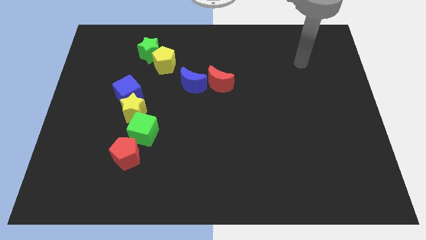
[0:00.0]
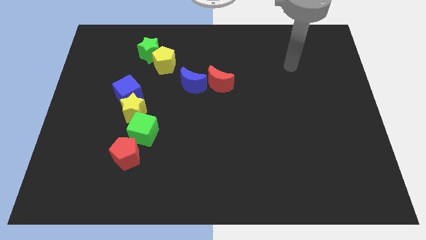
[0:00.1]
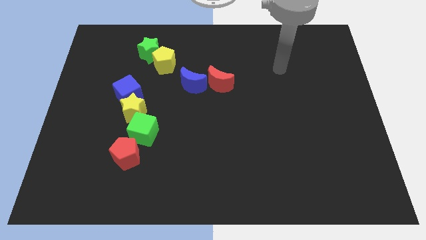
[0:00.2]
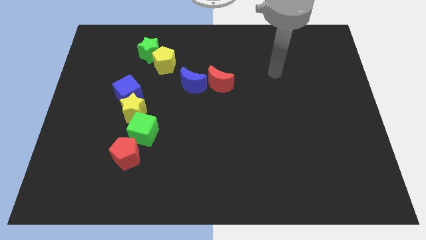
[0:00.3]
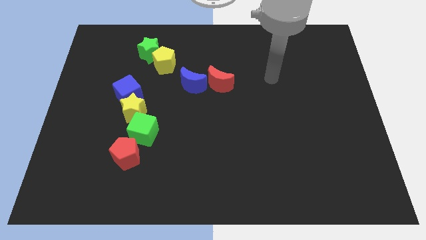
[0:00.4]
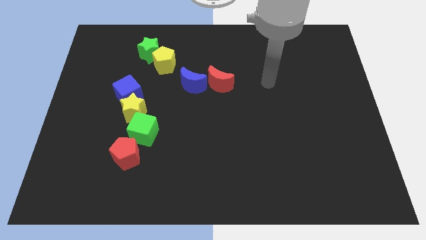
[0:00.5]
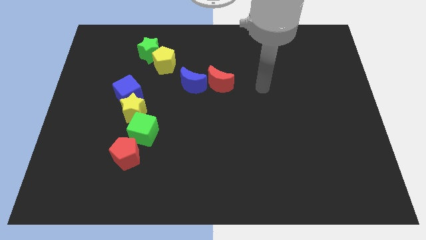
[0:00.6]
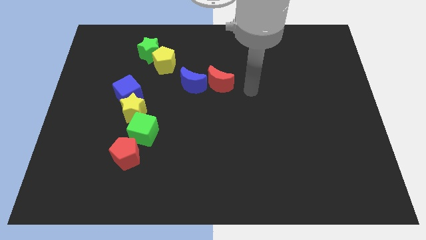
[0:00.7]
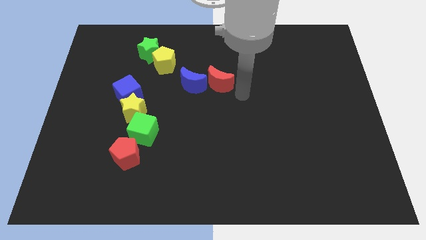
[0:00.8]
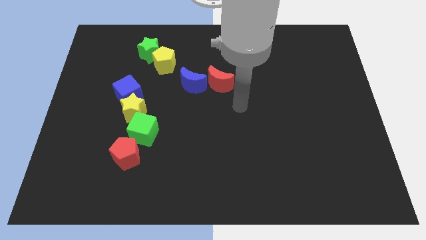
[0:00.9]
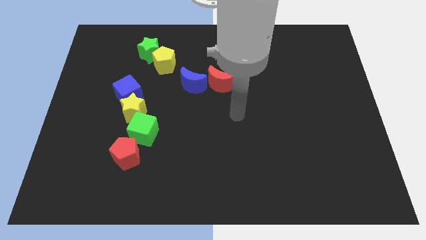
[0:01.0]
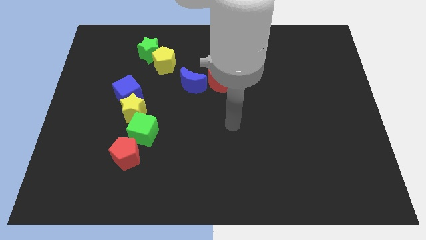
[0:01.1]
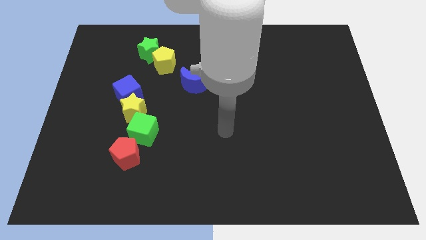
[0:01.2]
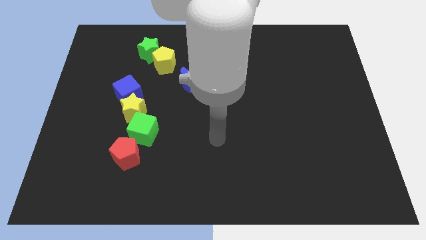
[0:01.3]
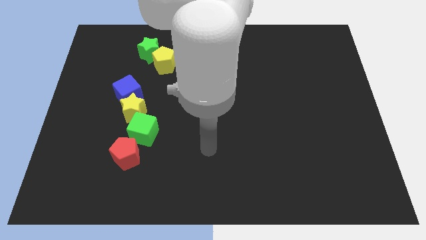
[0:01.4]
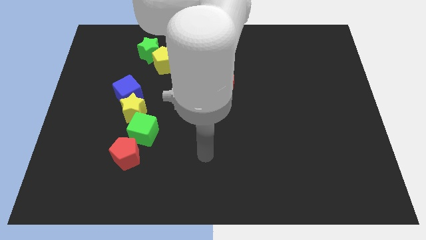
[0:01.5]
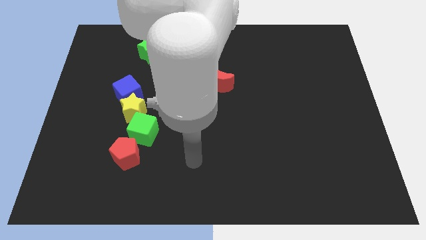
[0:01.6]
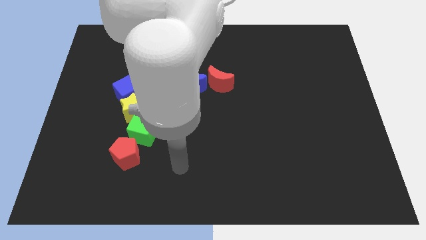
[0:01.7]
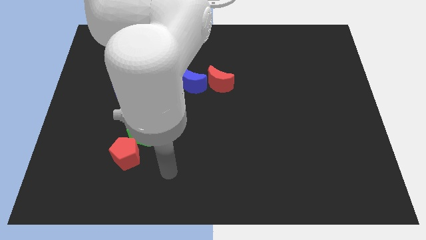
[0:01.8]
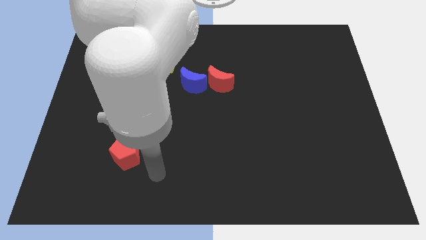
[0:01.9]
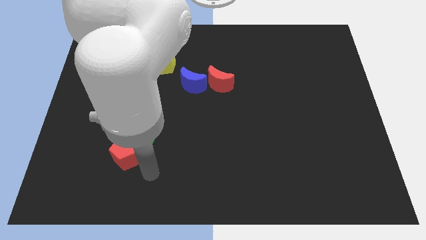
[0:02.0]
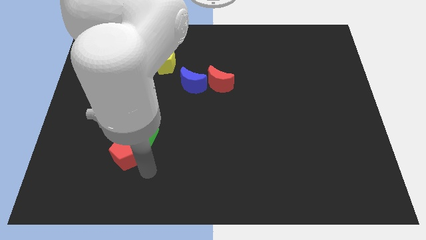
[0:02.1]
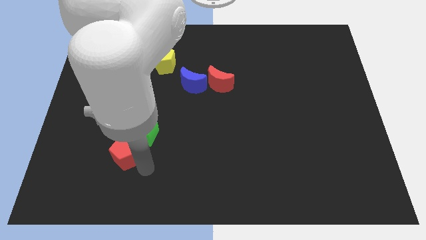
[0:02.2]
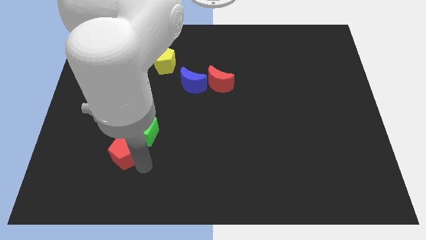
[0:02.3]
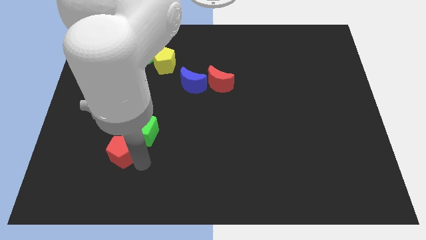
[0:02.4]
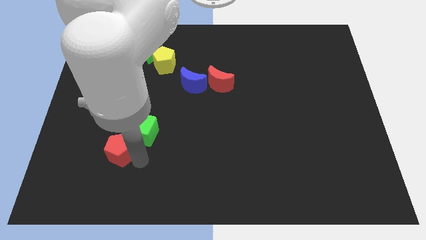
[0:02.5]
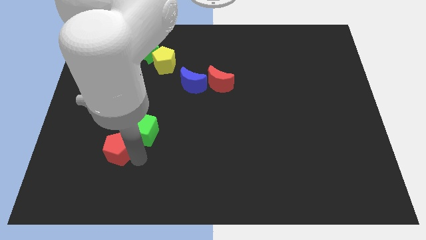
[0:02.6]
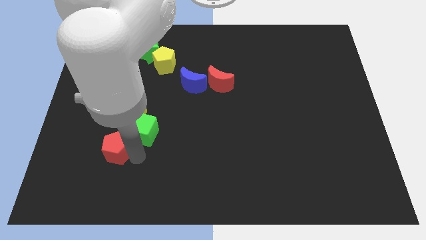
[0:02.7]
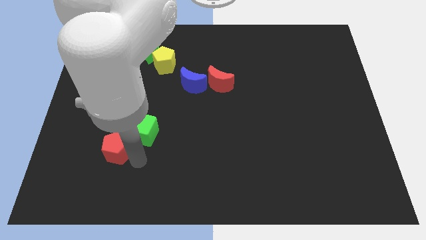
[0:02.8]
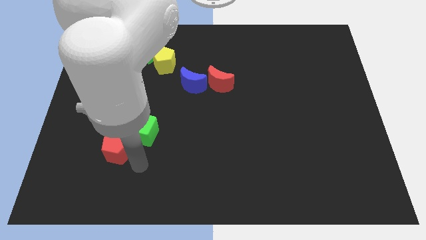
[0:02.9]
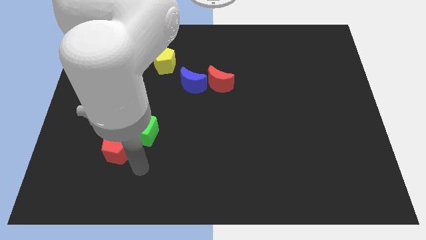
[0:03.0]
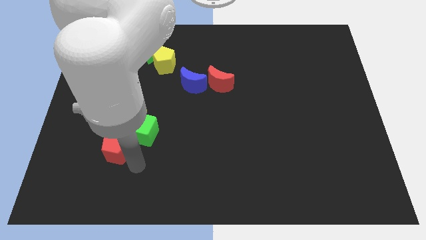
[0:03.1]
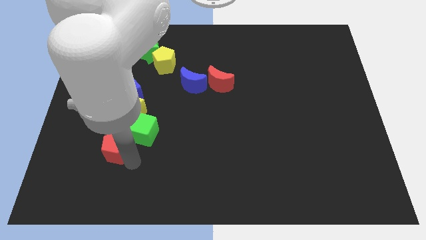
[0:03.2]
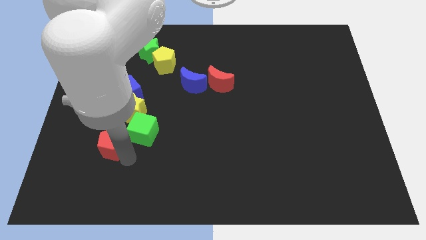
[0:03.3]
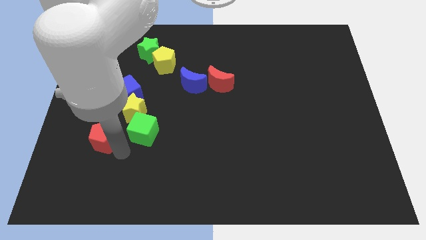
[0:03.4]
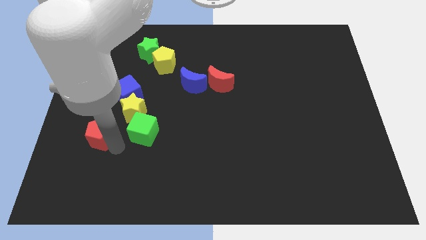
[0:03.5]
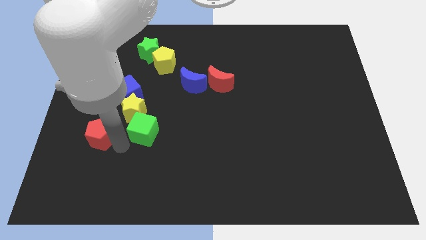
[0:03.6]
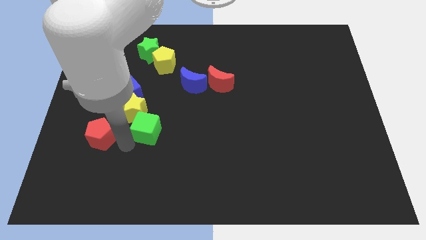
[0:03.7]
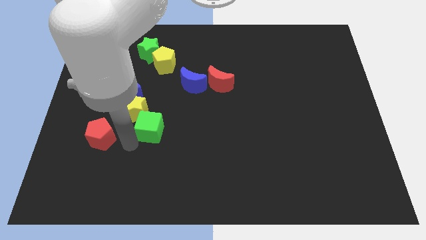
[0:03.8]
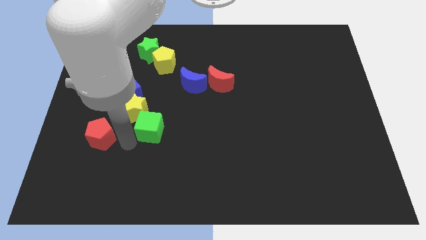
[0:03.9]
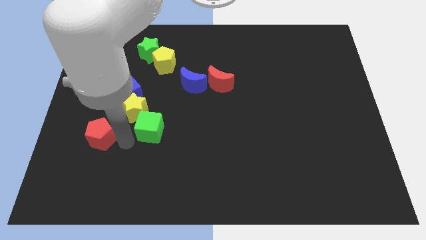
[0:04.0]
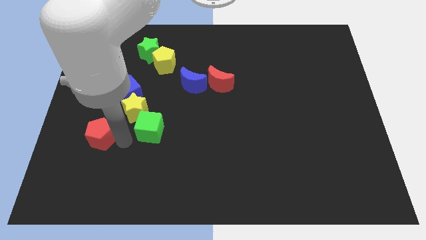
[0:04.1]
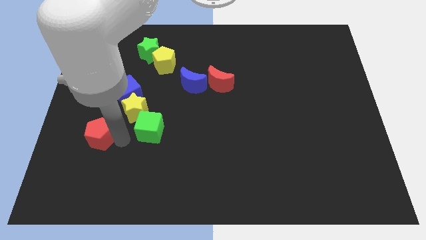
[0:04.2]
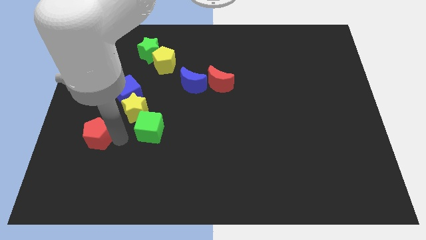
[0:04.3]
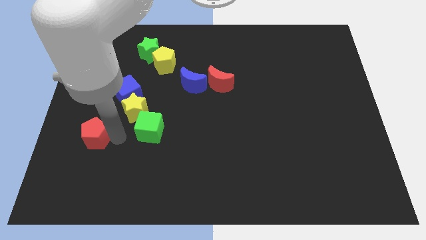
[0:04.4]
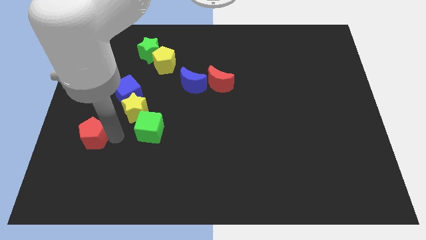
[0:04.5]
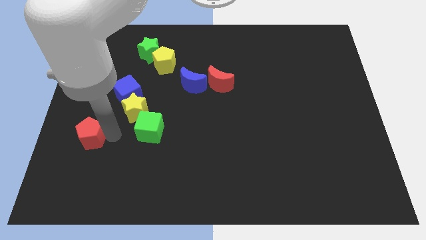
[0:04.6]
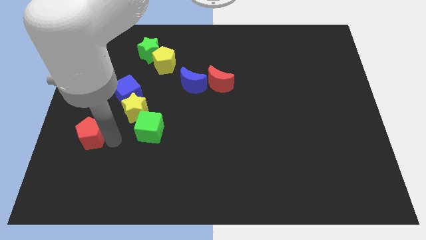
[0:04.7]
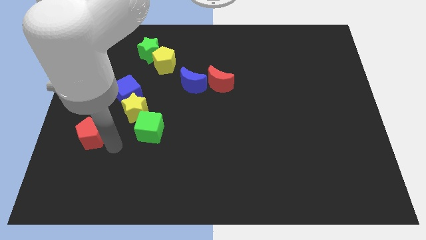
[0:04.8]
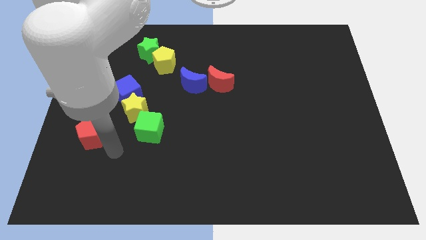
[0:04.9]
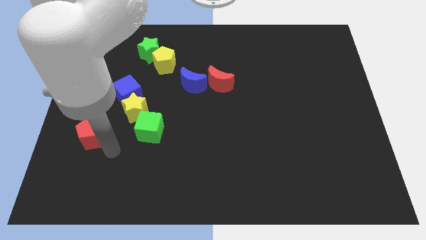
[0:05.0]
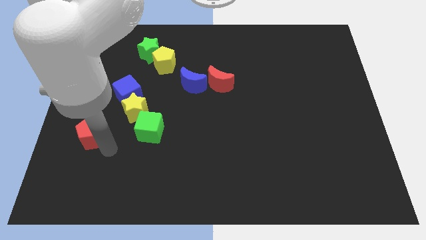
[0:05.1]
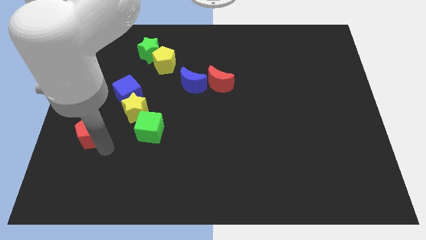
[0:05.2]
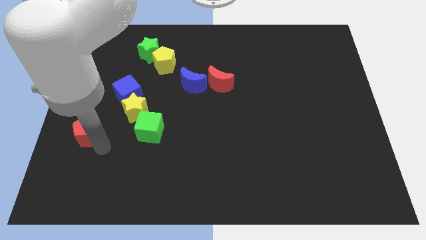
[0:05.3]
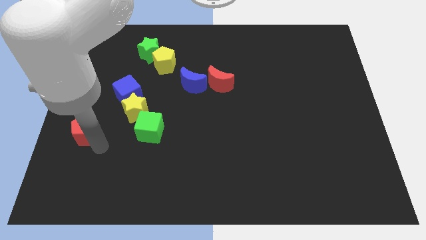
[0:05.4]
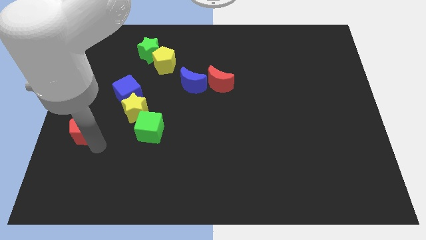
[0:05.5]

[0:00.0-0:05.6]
slide the red pentagon to the left side of the board
